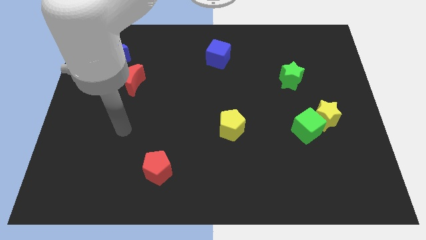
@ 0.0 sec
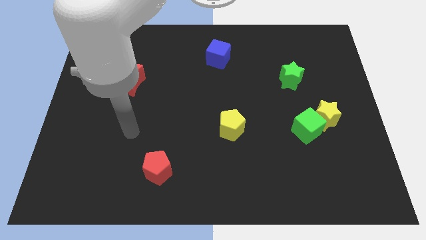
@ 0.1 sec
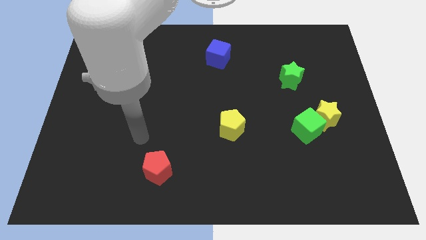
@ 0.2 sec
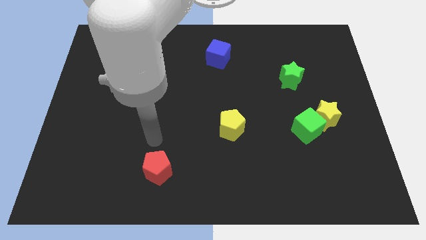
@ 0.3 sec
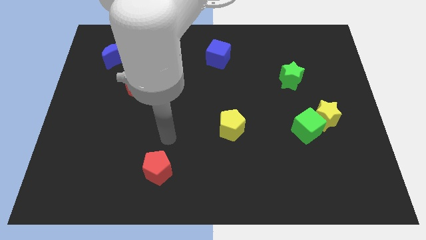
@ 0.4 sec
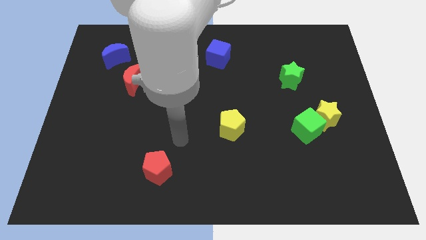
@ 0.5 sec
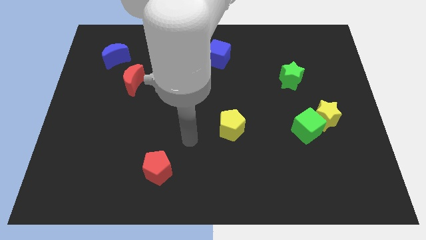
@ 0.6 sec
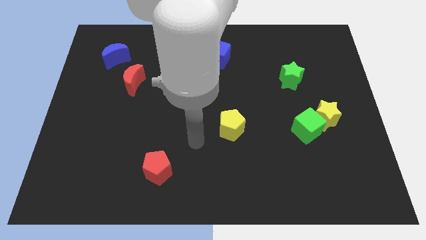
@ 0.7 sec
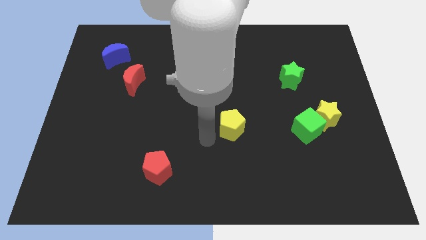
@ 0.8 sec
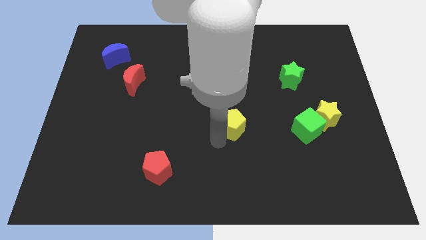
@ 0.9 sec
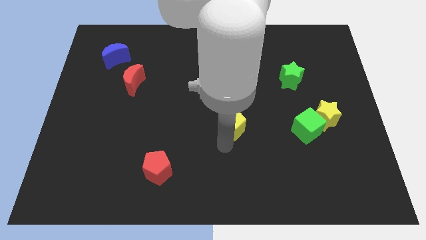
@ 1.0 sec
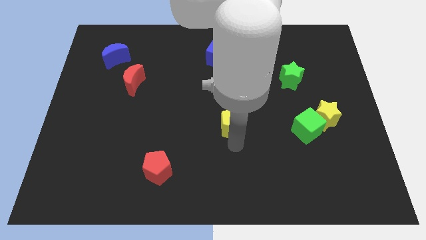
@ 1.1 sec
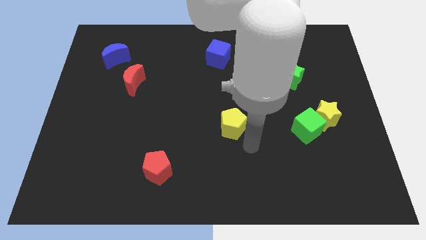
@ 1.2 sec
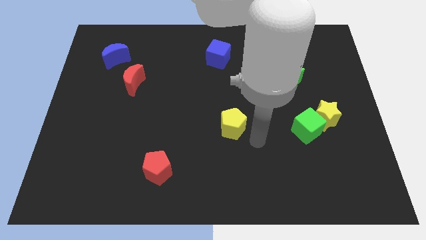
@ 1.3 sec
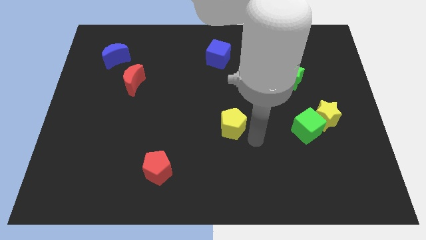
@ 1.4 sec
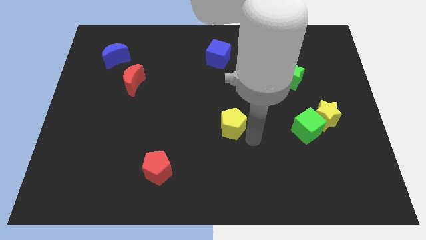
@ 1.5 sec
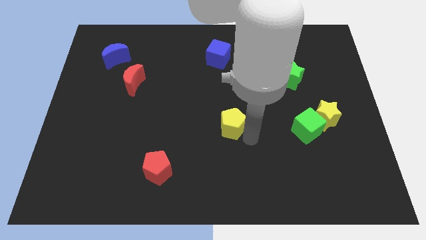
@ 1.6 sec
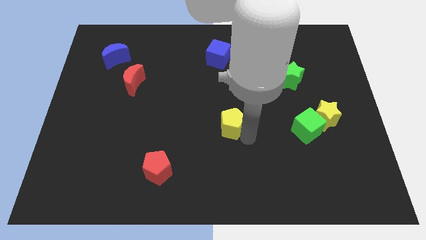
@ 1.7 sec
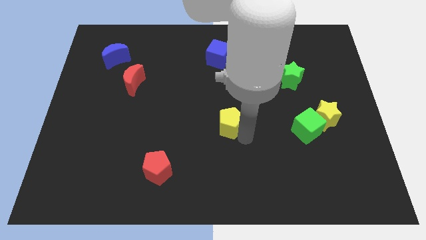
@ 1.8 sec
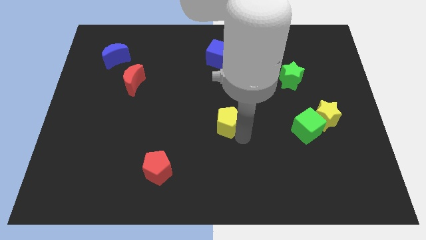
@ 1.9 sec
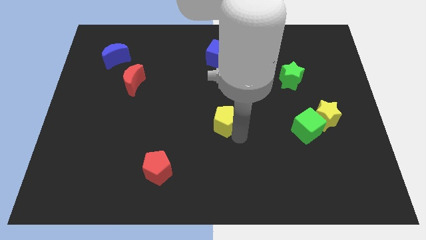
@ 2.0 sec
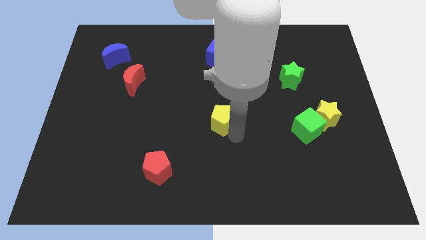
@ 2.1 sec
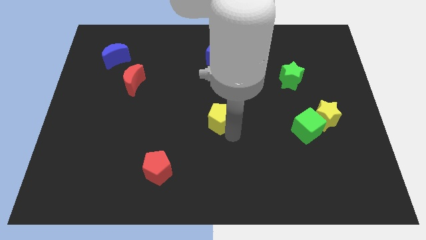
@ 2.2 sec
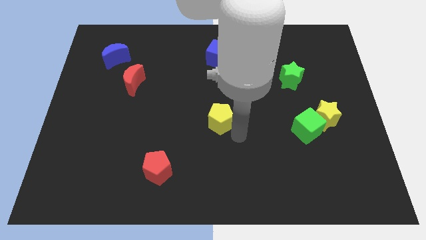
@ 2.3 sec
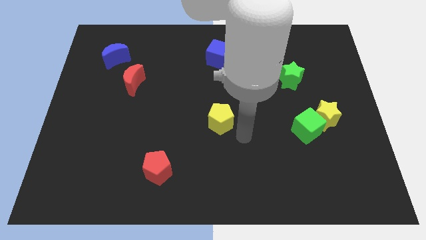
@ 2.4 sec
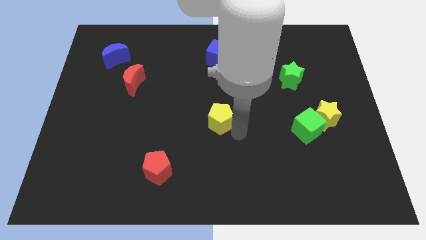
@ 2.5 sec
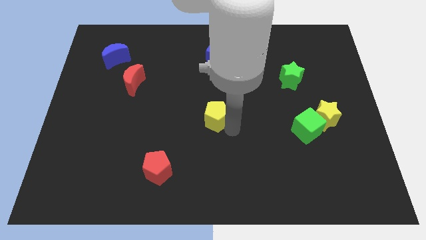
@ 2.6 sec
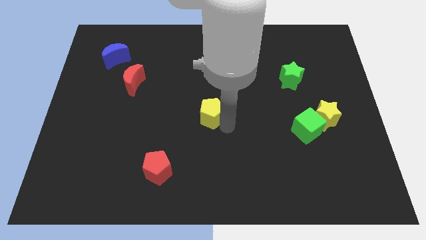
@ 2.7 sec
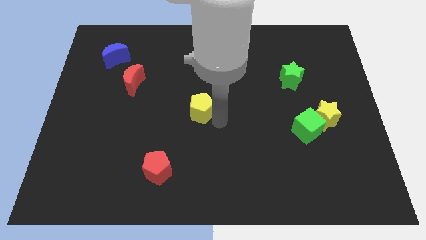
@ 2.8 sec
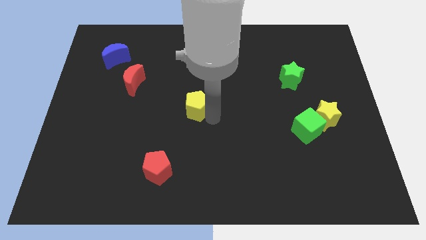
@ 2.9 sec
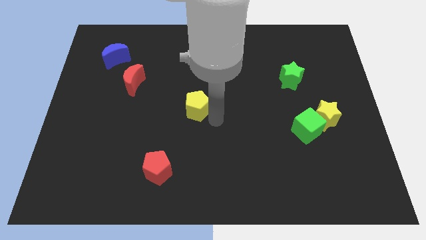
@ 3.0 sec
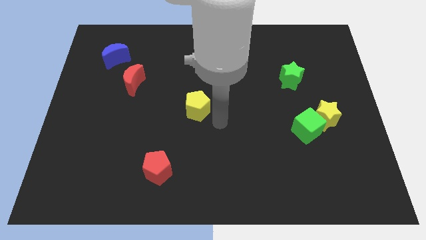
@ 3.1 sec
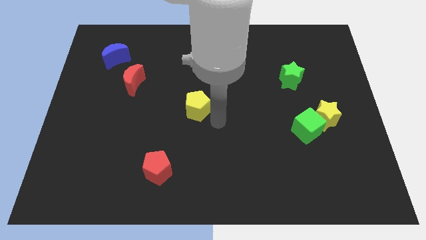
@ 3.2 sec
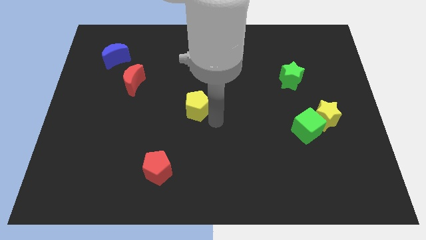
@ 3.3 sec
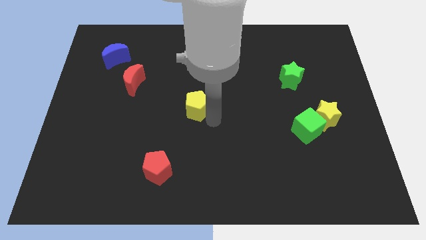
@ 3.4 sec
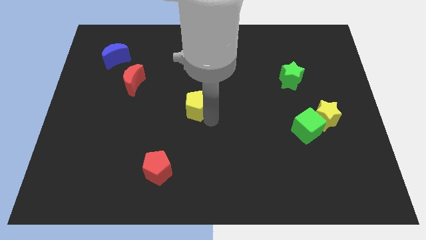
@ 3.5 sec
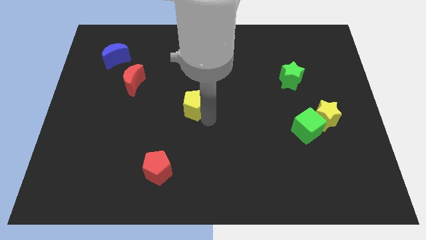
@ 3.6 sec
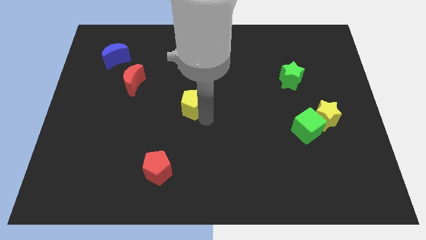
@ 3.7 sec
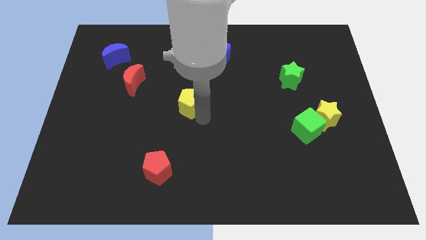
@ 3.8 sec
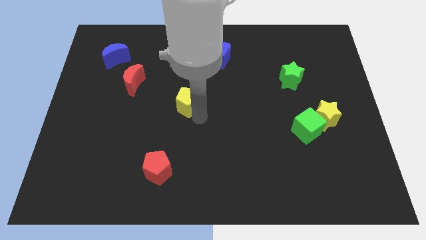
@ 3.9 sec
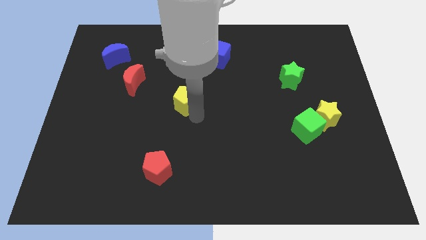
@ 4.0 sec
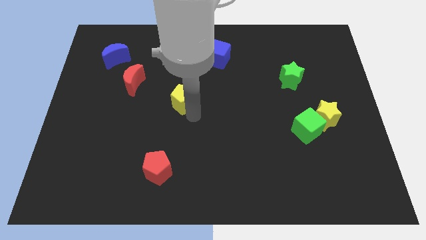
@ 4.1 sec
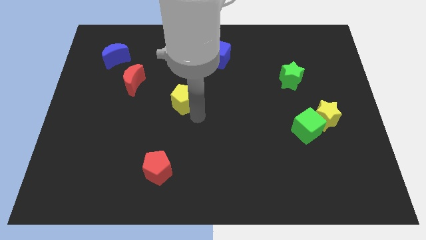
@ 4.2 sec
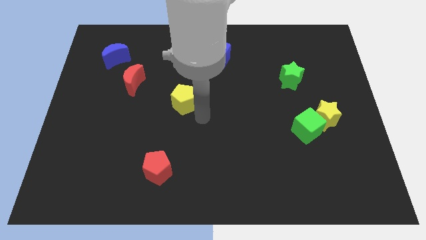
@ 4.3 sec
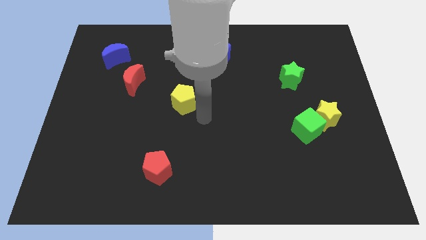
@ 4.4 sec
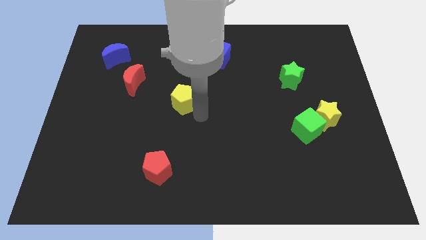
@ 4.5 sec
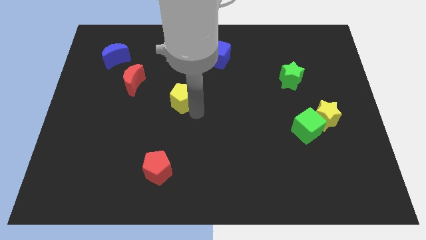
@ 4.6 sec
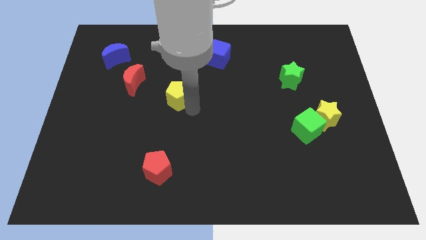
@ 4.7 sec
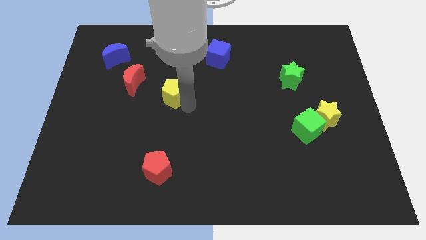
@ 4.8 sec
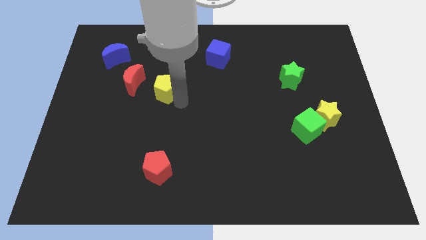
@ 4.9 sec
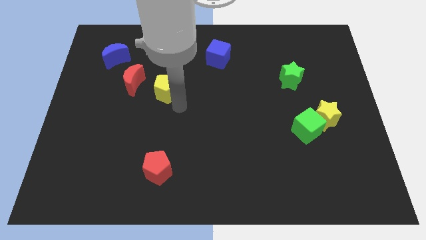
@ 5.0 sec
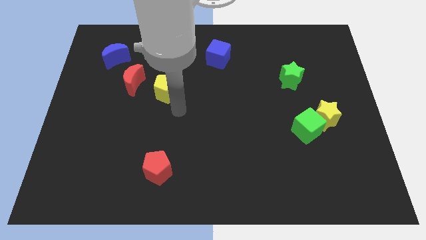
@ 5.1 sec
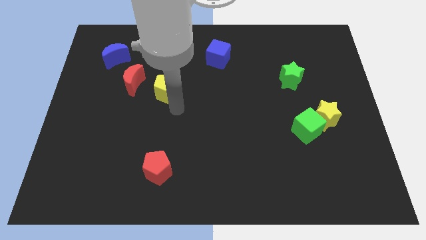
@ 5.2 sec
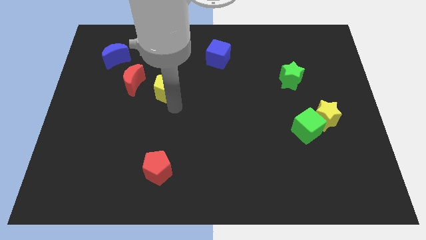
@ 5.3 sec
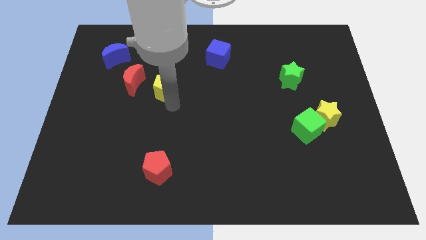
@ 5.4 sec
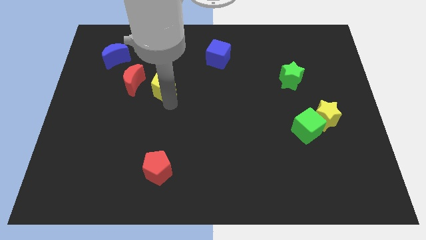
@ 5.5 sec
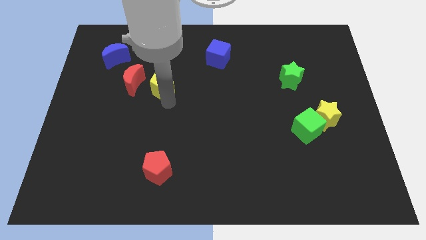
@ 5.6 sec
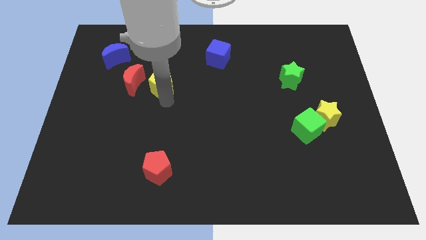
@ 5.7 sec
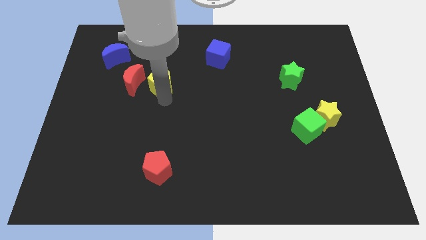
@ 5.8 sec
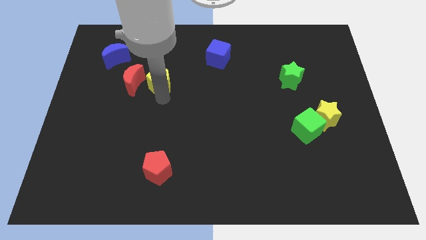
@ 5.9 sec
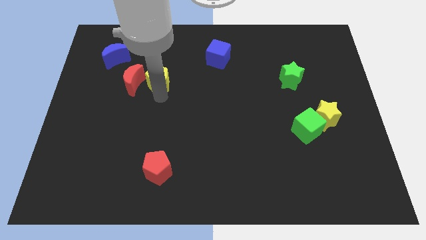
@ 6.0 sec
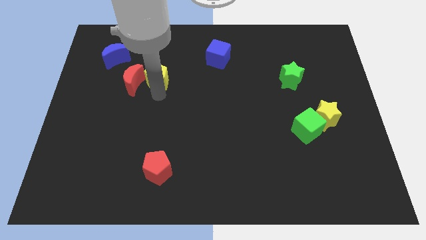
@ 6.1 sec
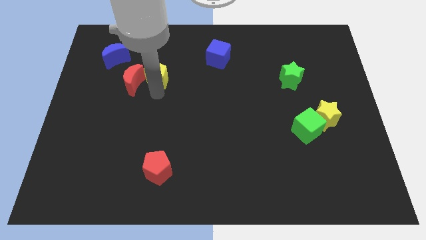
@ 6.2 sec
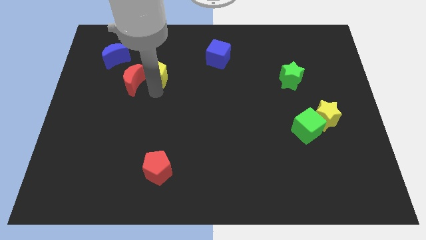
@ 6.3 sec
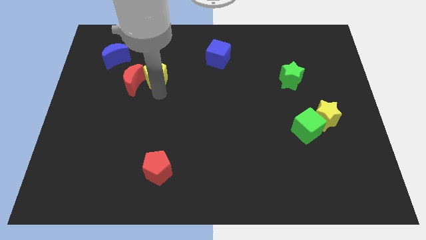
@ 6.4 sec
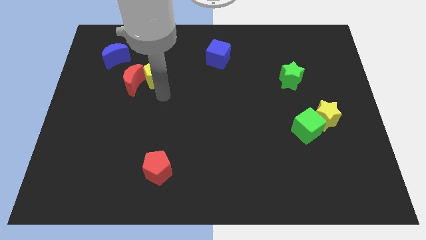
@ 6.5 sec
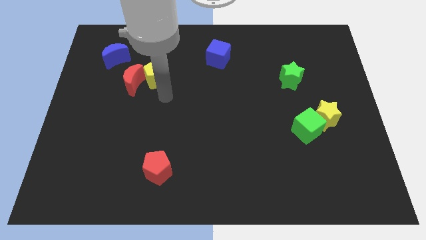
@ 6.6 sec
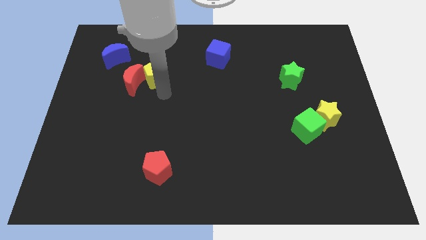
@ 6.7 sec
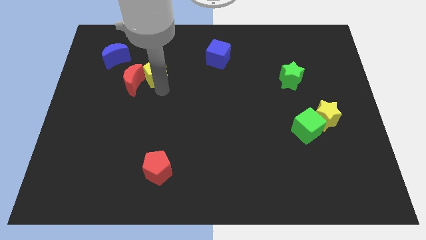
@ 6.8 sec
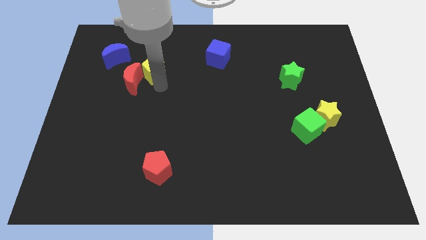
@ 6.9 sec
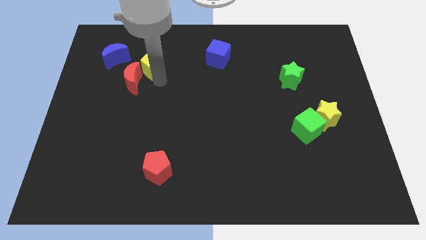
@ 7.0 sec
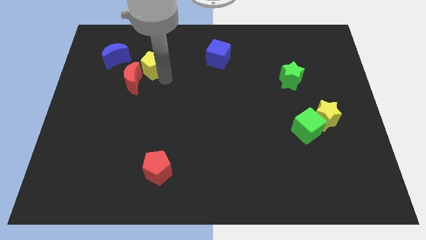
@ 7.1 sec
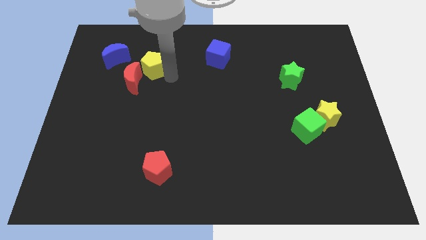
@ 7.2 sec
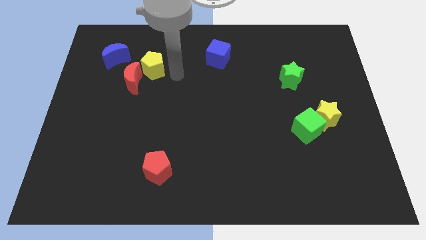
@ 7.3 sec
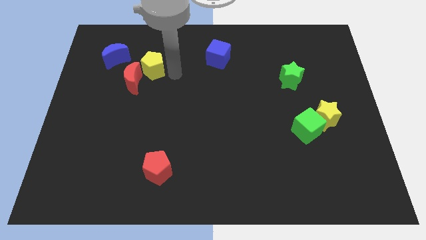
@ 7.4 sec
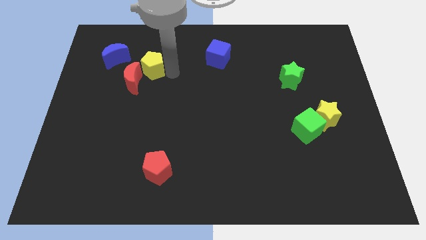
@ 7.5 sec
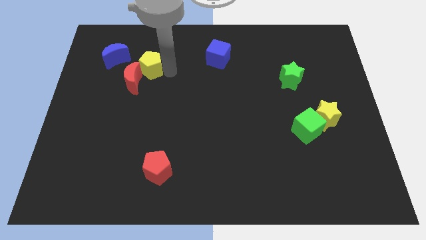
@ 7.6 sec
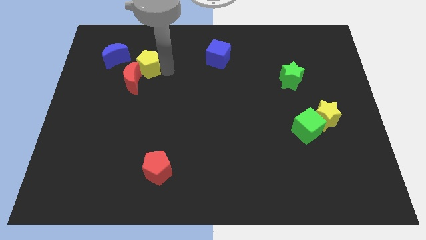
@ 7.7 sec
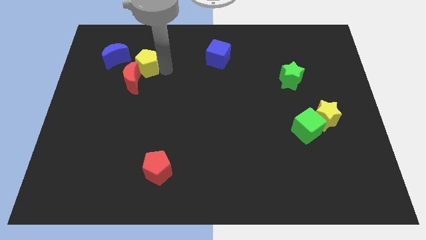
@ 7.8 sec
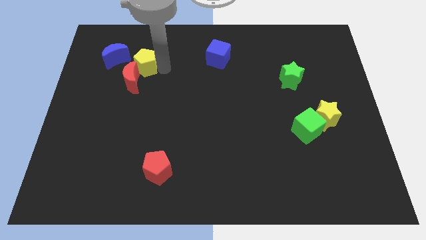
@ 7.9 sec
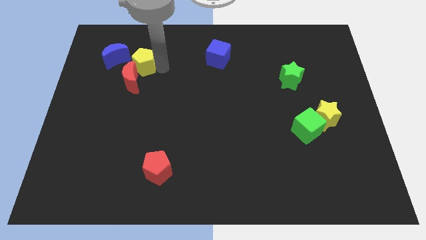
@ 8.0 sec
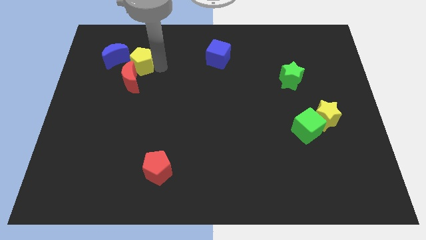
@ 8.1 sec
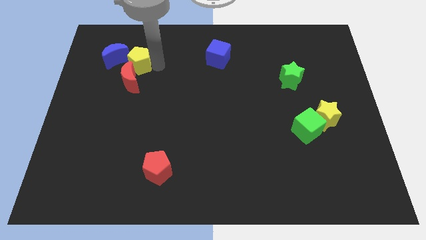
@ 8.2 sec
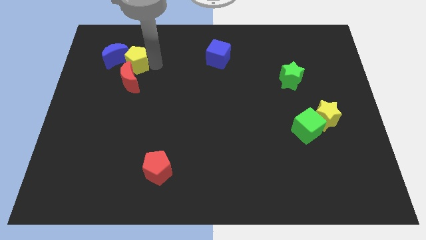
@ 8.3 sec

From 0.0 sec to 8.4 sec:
slide the yellow pentagon to the blue moon

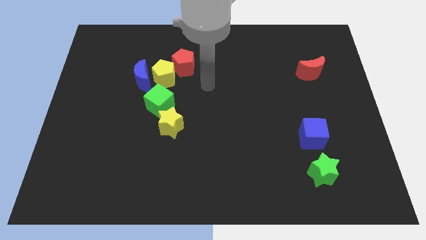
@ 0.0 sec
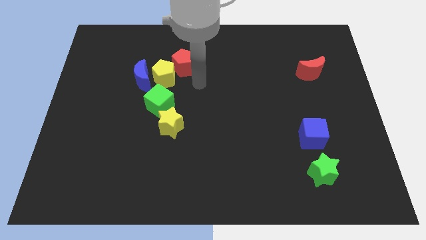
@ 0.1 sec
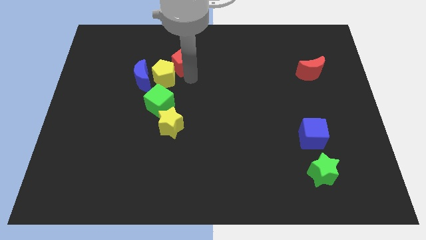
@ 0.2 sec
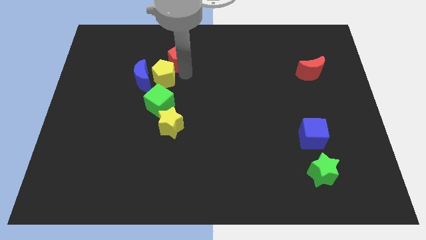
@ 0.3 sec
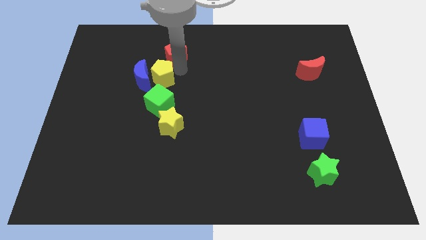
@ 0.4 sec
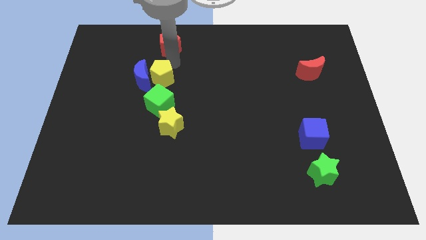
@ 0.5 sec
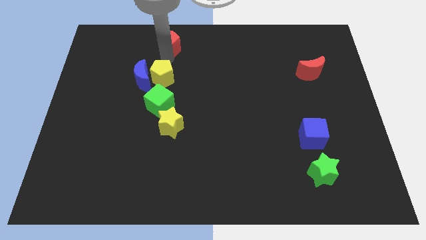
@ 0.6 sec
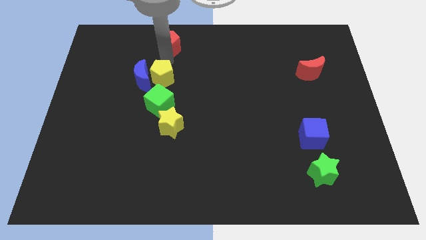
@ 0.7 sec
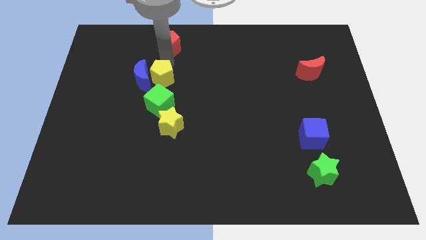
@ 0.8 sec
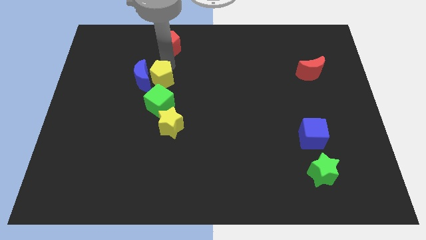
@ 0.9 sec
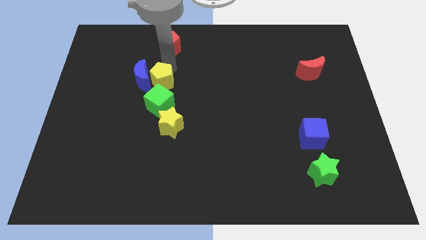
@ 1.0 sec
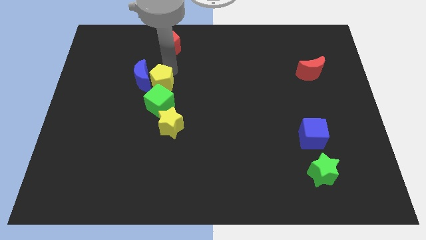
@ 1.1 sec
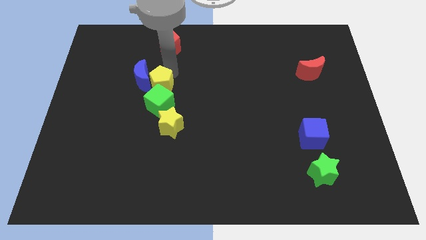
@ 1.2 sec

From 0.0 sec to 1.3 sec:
push the yellow pentagon next to the green cube
